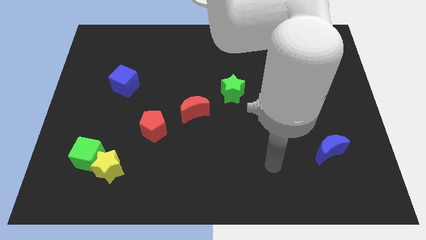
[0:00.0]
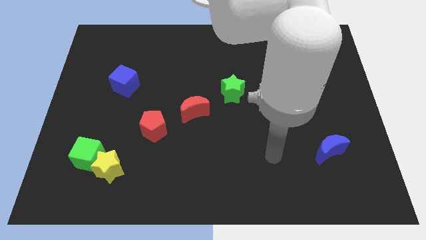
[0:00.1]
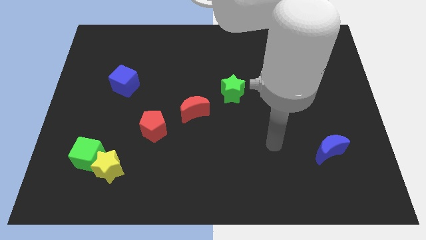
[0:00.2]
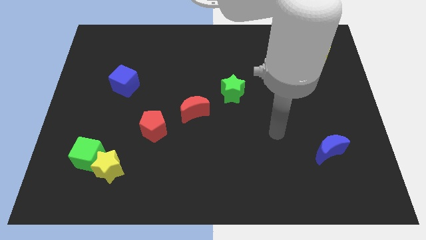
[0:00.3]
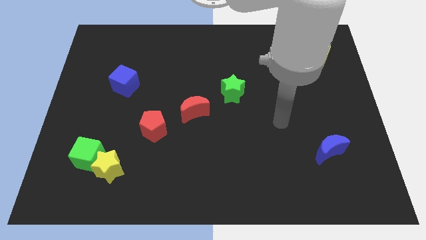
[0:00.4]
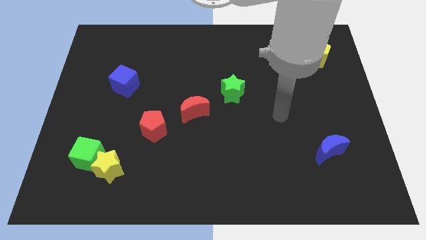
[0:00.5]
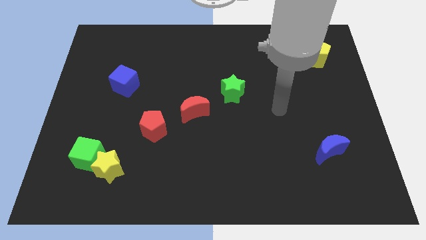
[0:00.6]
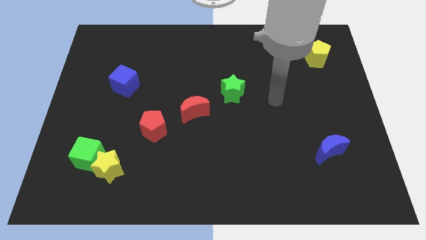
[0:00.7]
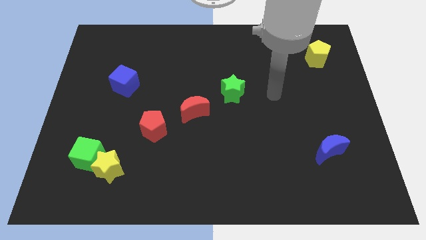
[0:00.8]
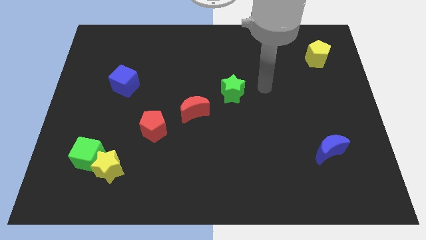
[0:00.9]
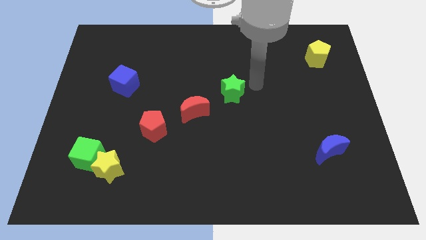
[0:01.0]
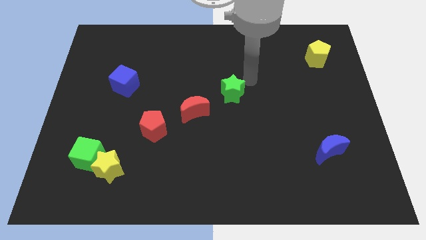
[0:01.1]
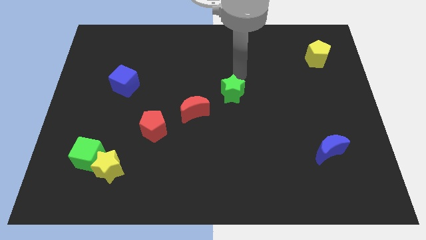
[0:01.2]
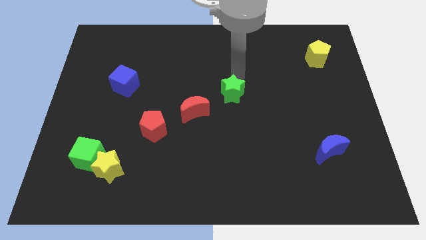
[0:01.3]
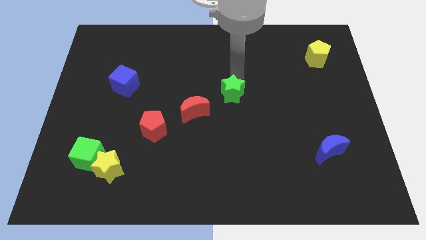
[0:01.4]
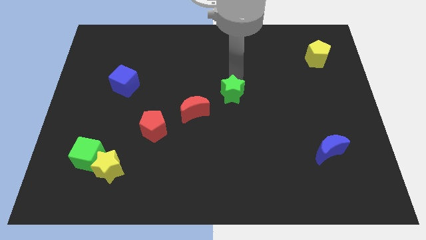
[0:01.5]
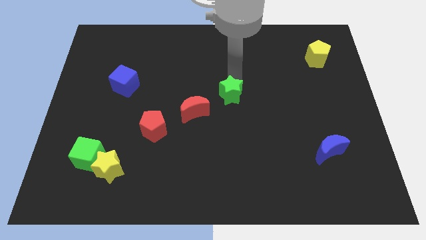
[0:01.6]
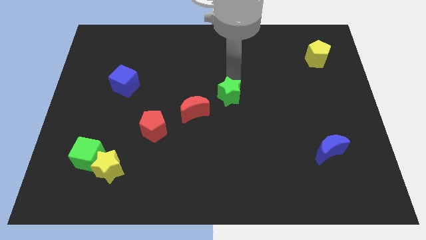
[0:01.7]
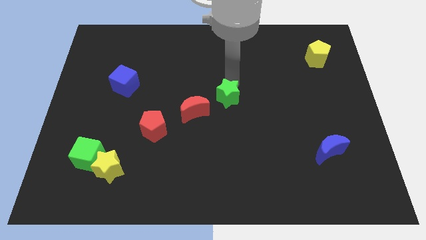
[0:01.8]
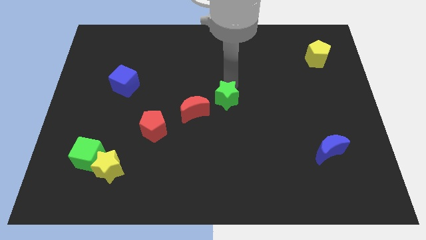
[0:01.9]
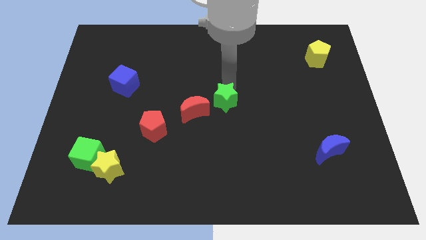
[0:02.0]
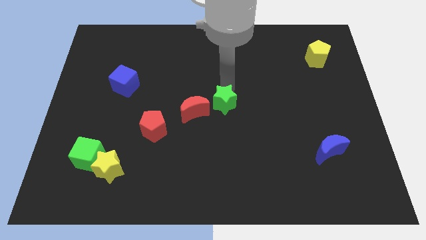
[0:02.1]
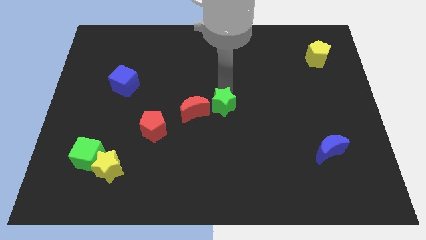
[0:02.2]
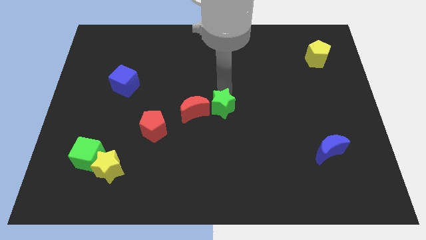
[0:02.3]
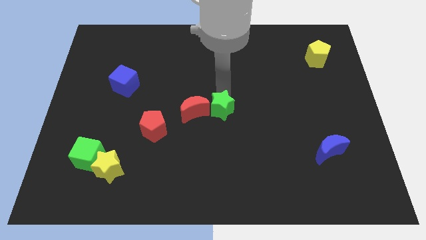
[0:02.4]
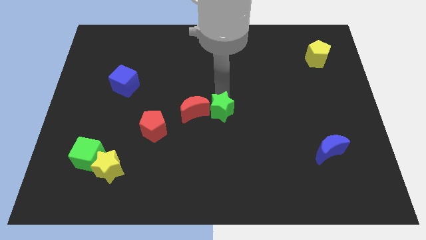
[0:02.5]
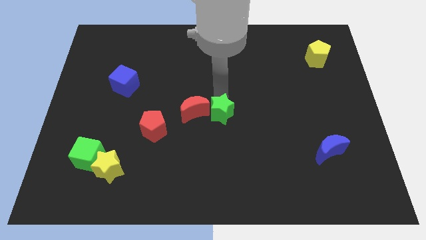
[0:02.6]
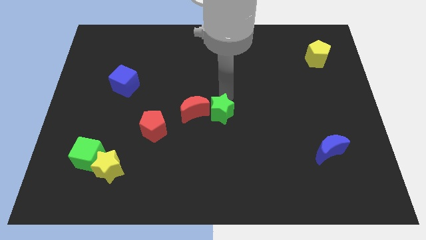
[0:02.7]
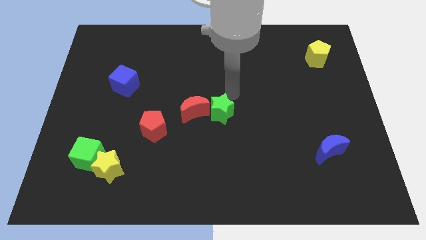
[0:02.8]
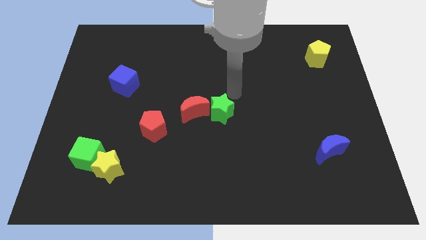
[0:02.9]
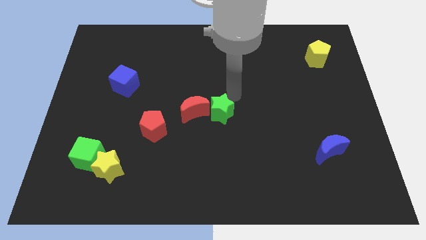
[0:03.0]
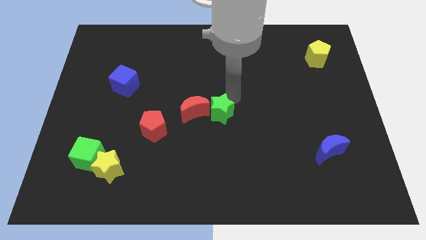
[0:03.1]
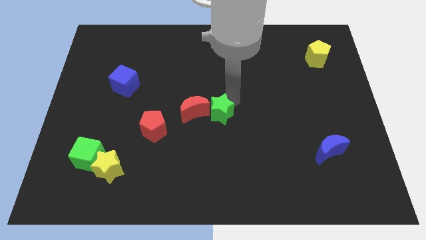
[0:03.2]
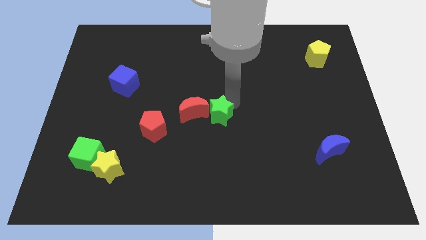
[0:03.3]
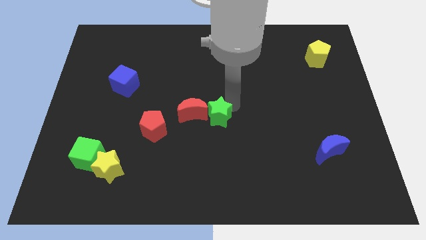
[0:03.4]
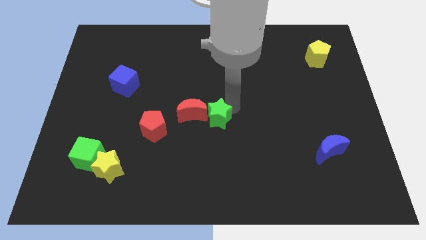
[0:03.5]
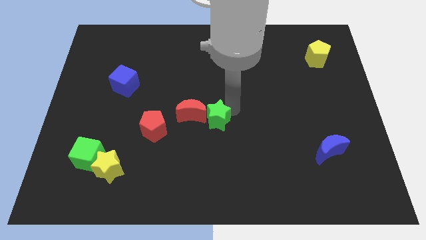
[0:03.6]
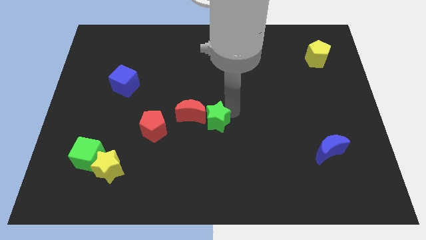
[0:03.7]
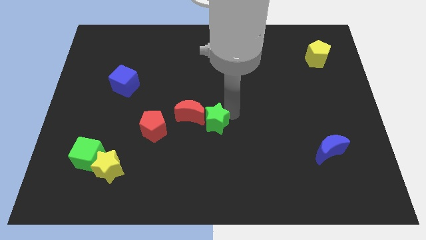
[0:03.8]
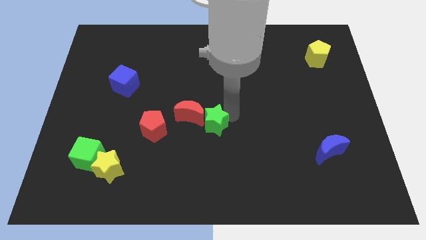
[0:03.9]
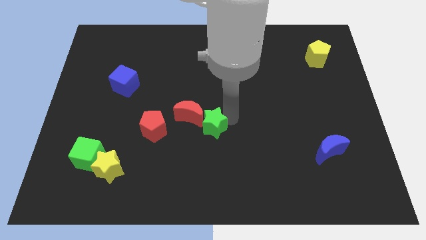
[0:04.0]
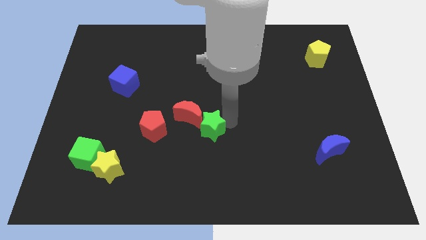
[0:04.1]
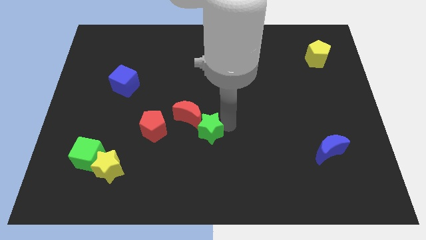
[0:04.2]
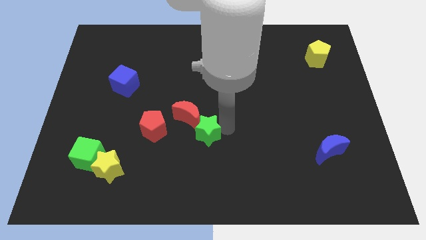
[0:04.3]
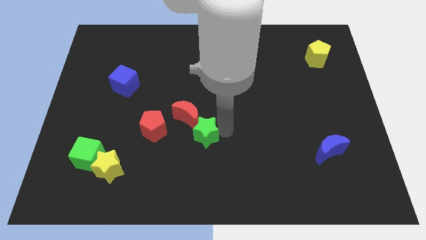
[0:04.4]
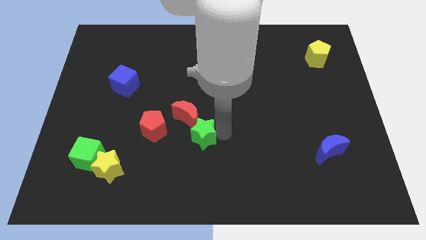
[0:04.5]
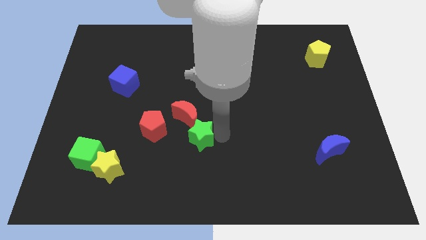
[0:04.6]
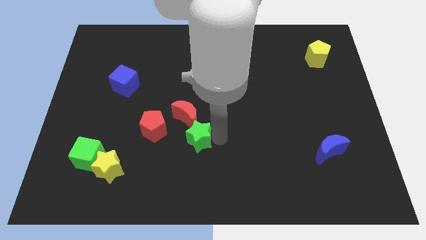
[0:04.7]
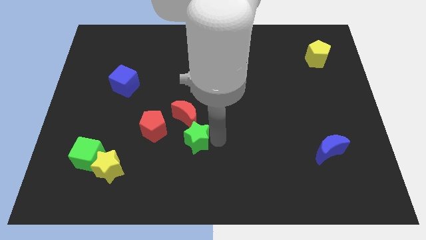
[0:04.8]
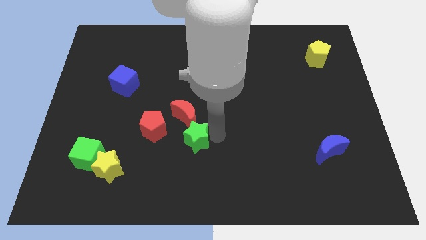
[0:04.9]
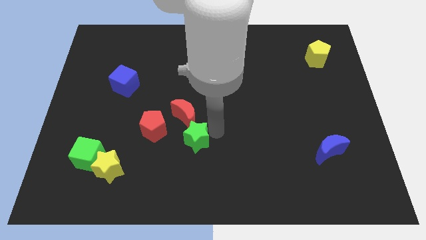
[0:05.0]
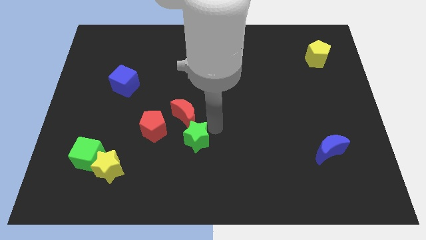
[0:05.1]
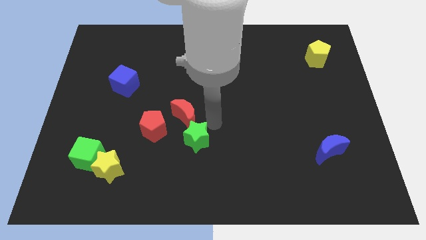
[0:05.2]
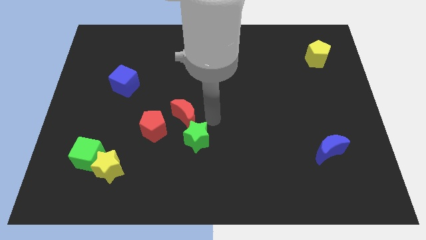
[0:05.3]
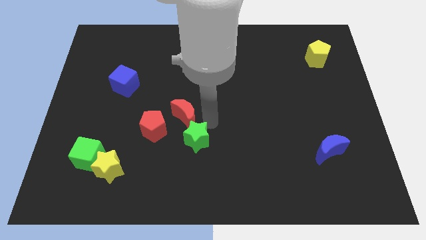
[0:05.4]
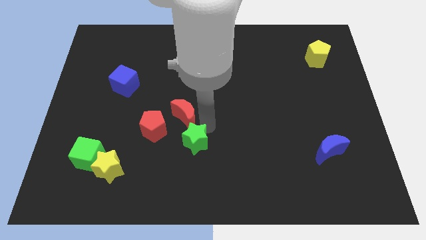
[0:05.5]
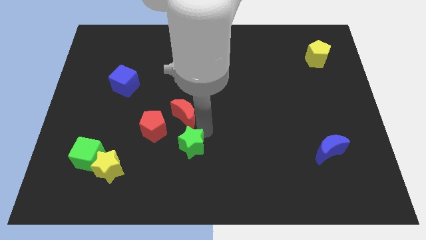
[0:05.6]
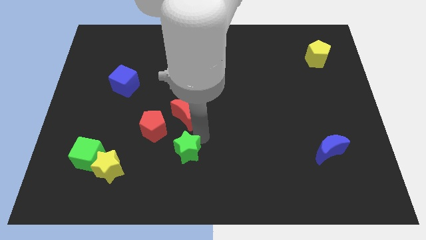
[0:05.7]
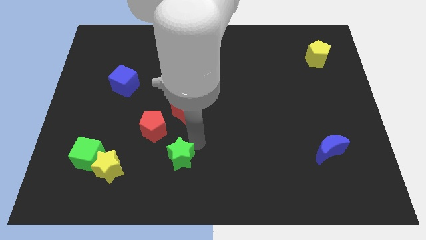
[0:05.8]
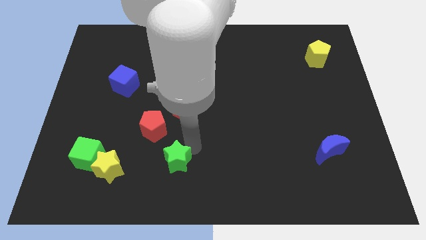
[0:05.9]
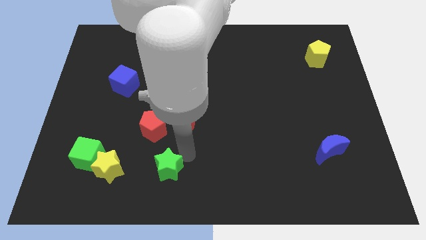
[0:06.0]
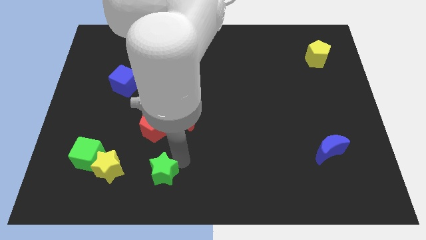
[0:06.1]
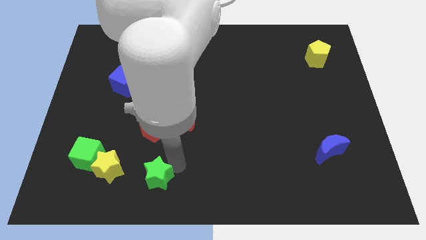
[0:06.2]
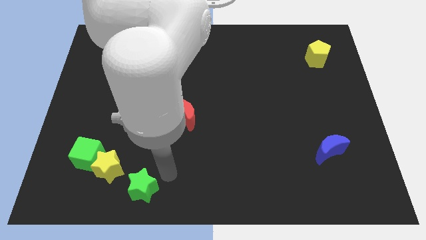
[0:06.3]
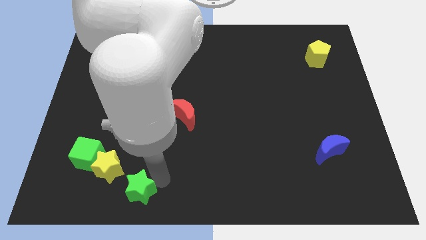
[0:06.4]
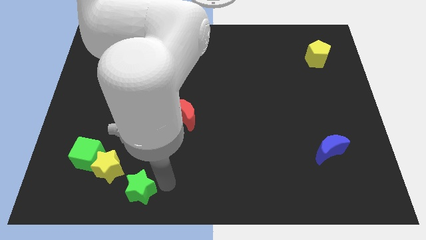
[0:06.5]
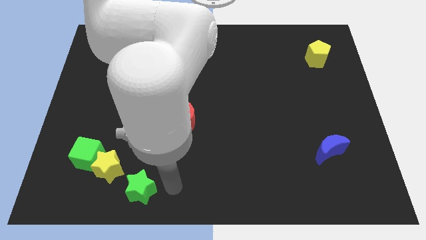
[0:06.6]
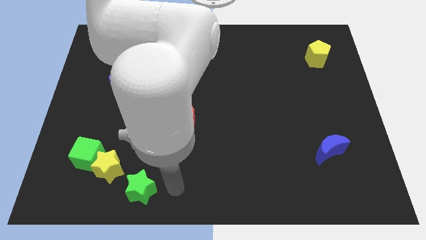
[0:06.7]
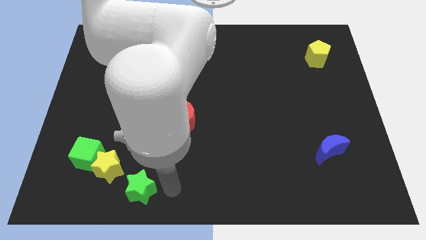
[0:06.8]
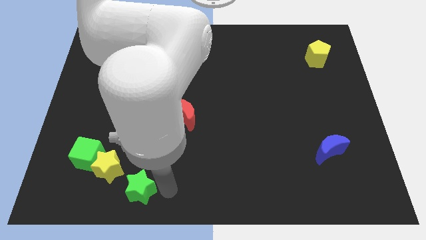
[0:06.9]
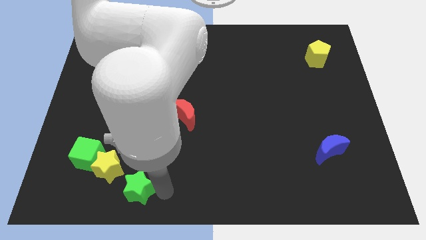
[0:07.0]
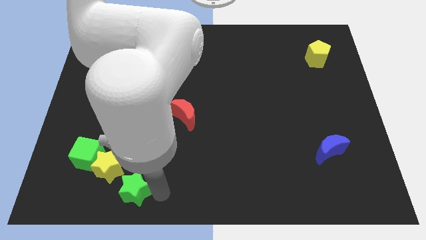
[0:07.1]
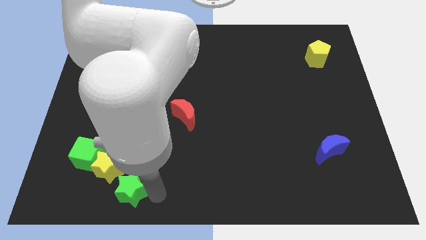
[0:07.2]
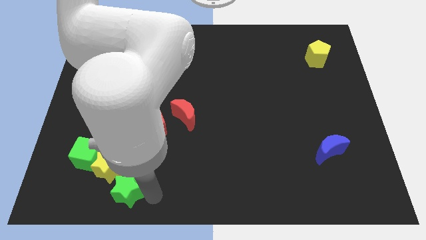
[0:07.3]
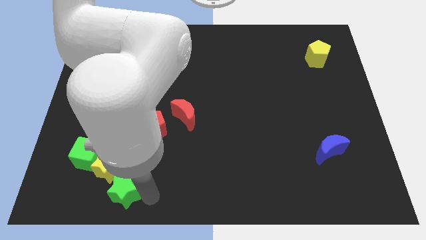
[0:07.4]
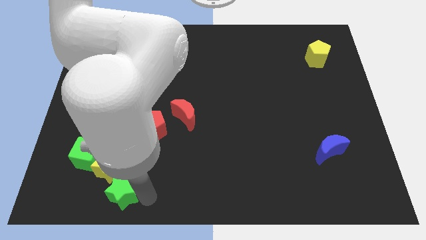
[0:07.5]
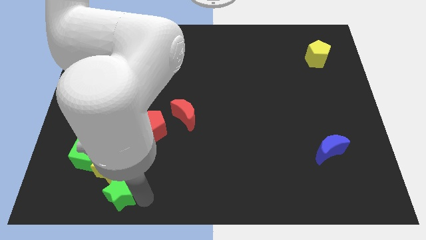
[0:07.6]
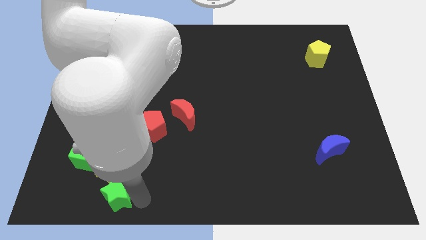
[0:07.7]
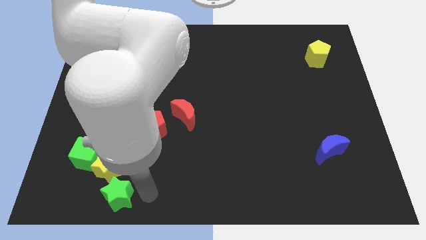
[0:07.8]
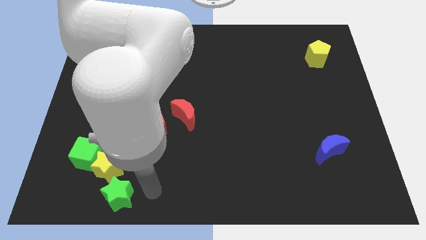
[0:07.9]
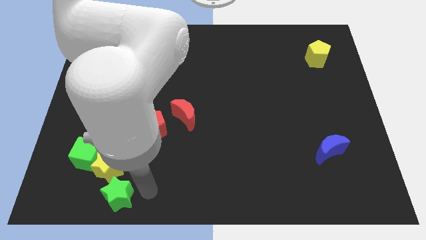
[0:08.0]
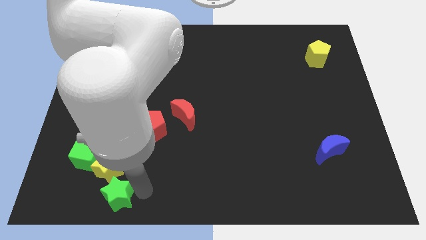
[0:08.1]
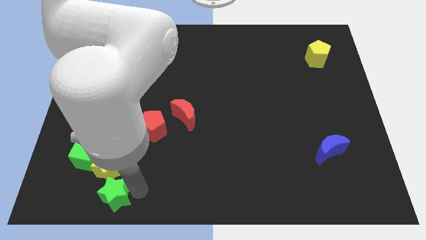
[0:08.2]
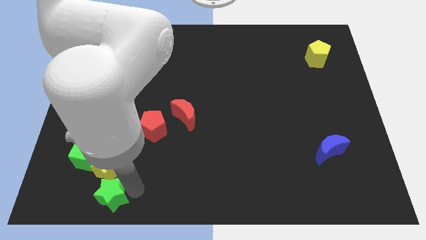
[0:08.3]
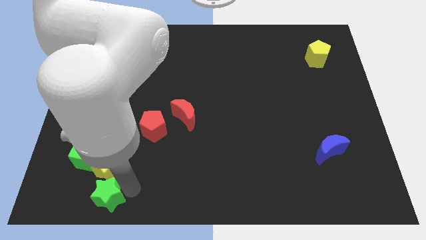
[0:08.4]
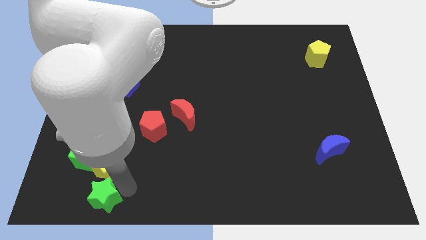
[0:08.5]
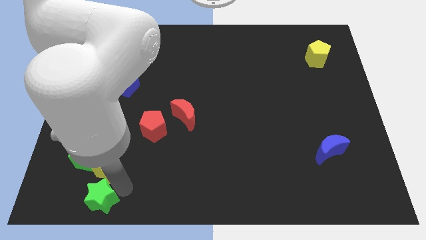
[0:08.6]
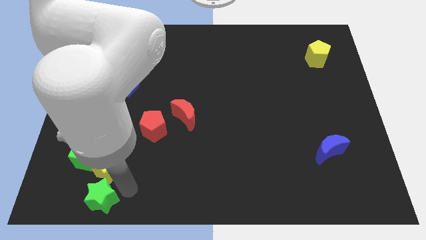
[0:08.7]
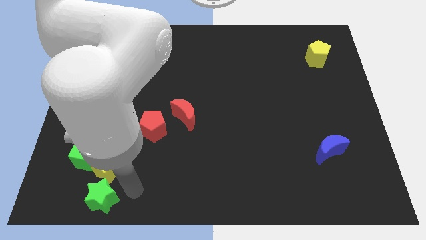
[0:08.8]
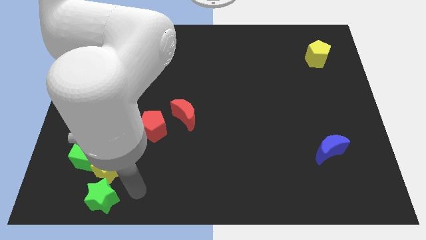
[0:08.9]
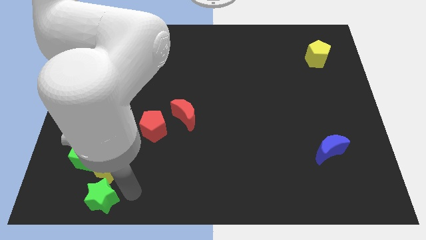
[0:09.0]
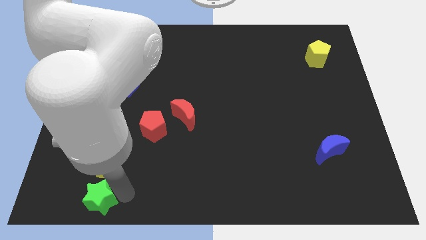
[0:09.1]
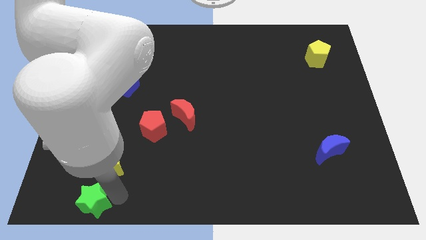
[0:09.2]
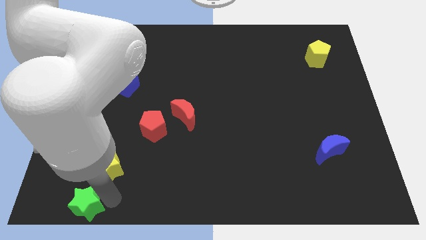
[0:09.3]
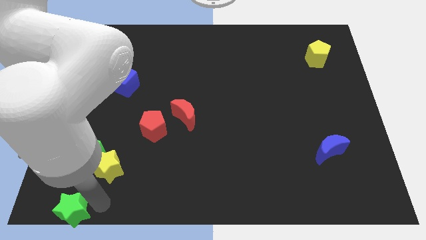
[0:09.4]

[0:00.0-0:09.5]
move the green star to the bottom left
